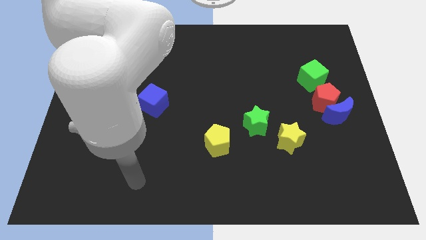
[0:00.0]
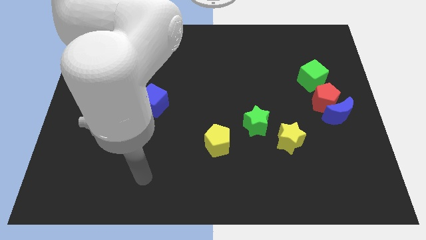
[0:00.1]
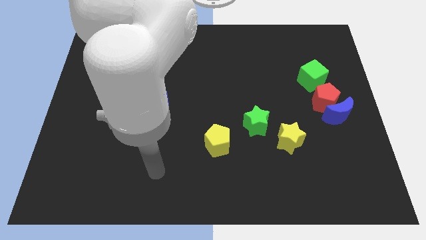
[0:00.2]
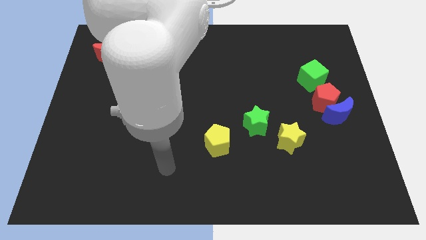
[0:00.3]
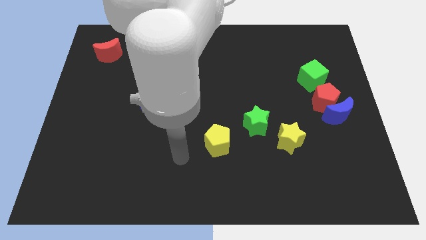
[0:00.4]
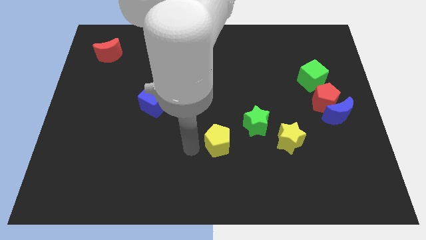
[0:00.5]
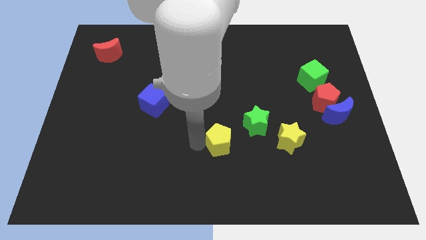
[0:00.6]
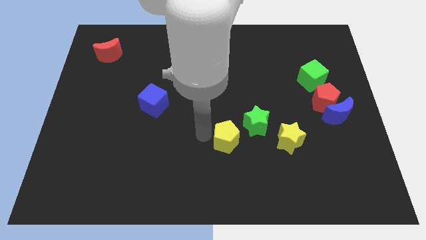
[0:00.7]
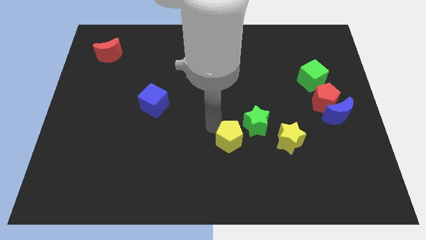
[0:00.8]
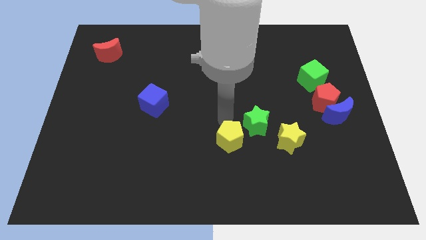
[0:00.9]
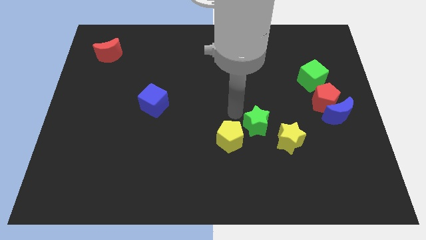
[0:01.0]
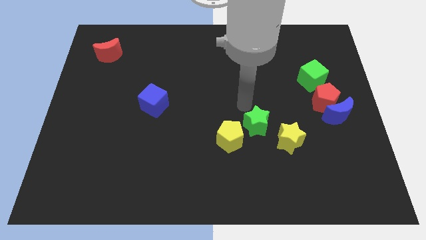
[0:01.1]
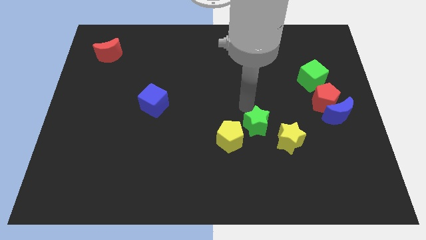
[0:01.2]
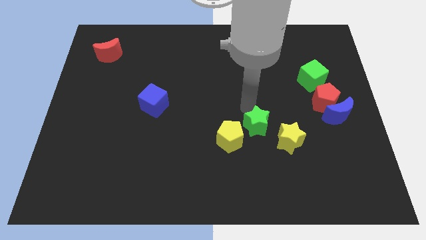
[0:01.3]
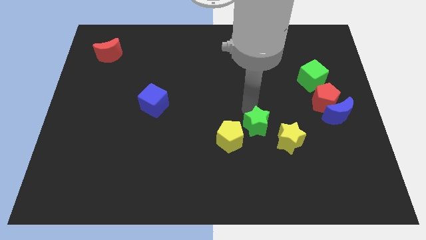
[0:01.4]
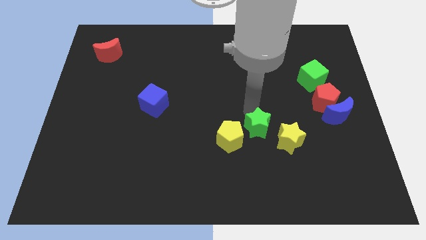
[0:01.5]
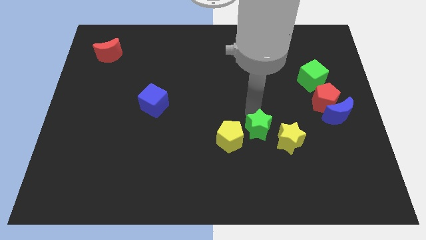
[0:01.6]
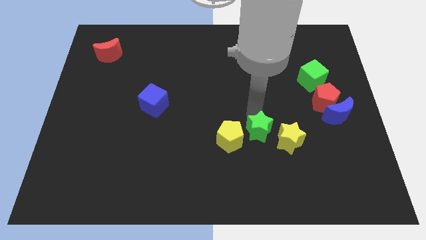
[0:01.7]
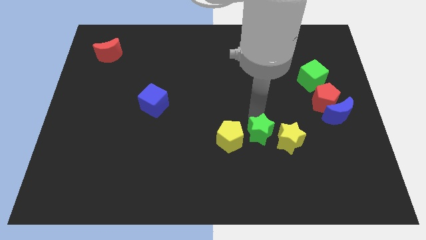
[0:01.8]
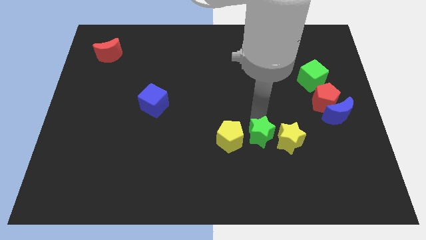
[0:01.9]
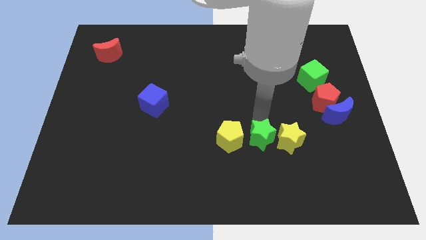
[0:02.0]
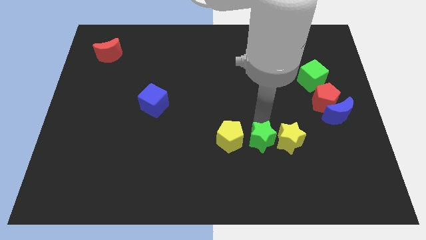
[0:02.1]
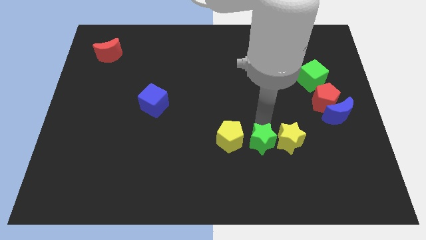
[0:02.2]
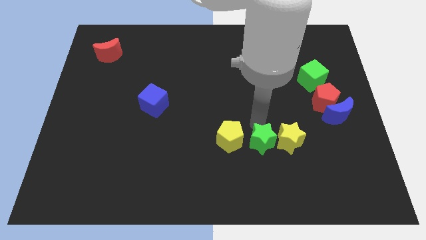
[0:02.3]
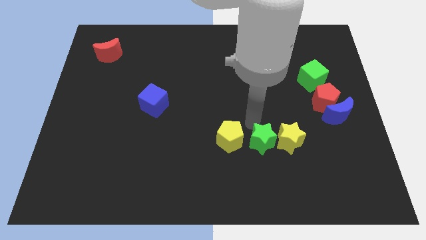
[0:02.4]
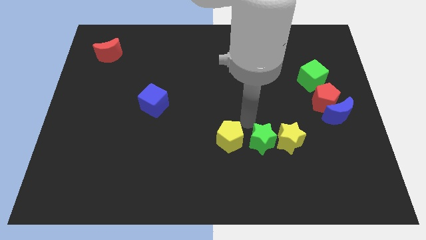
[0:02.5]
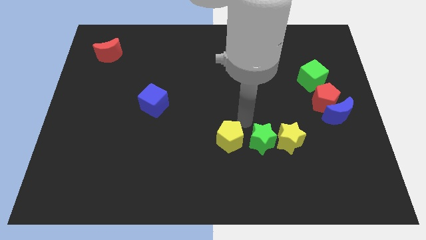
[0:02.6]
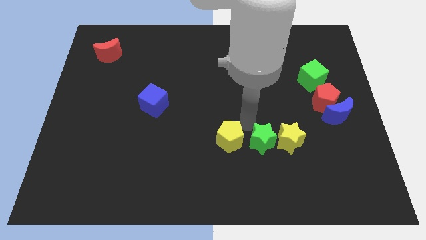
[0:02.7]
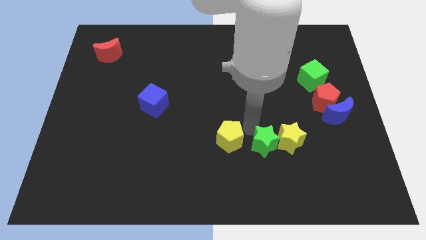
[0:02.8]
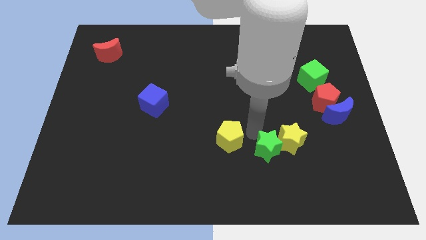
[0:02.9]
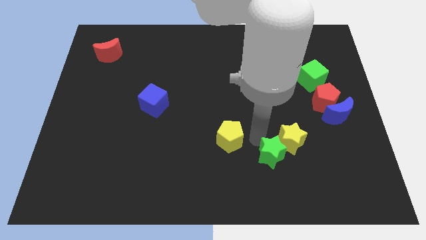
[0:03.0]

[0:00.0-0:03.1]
slightly slide the green star downwards and then right

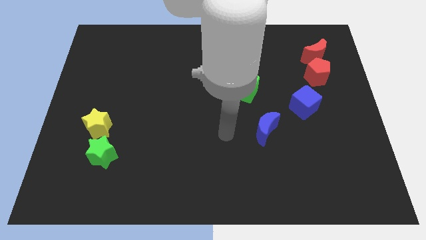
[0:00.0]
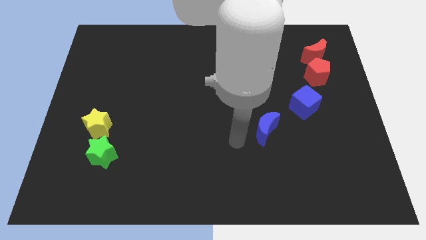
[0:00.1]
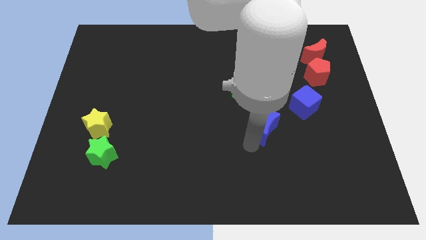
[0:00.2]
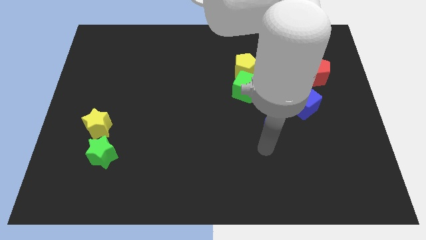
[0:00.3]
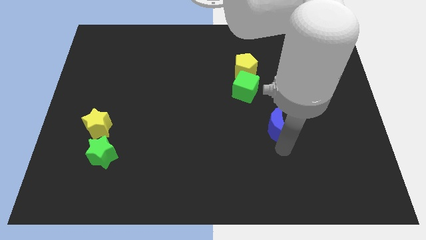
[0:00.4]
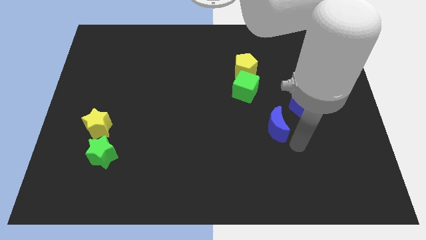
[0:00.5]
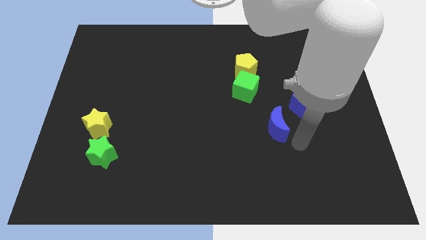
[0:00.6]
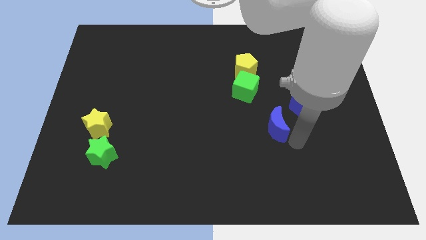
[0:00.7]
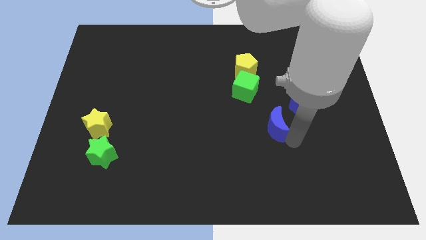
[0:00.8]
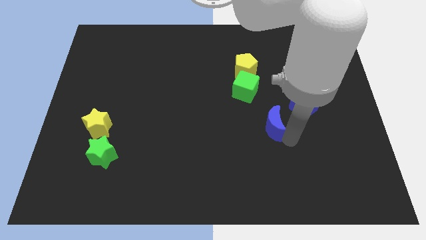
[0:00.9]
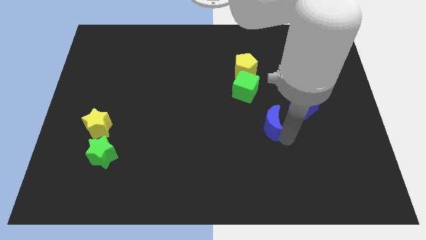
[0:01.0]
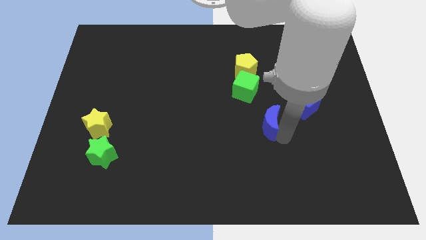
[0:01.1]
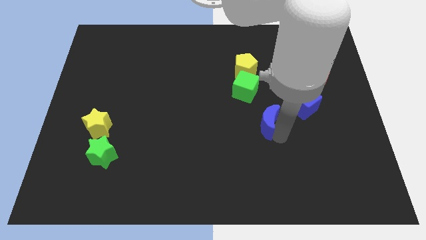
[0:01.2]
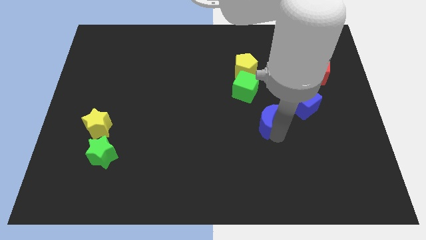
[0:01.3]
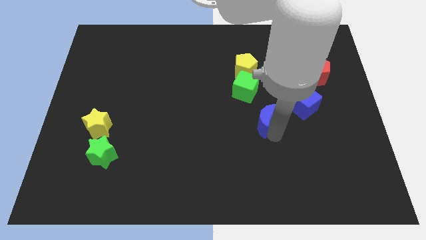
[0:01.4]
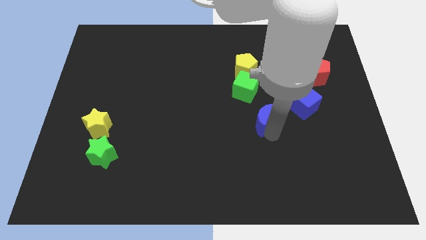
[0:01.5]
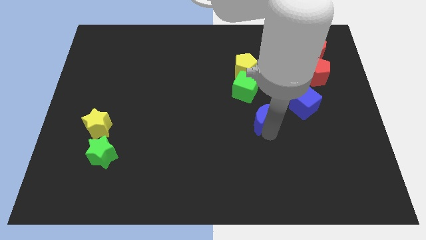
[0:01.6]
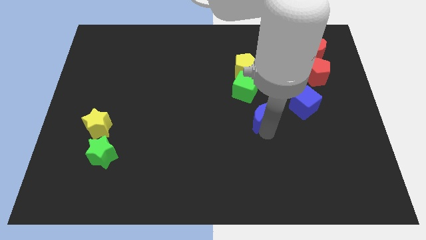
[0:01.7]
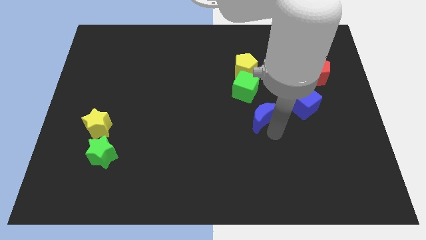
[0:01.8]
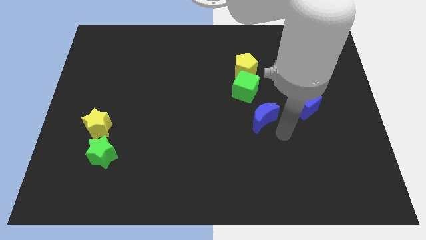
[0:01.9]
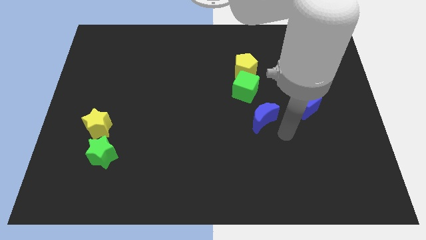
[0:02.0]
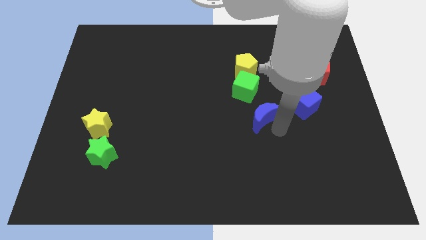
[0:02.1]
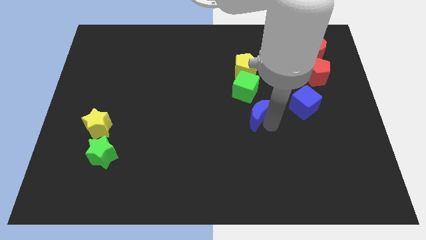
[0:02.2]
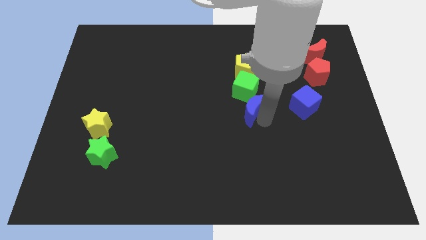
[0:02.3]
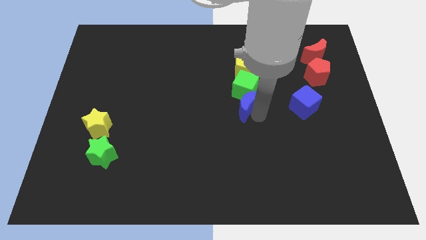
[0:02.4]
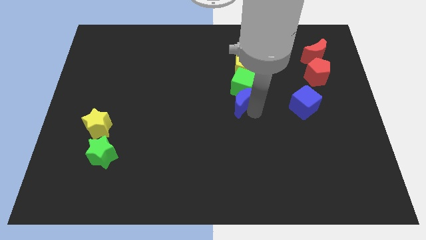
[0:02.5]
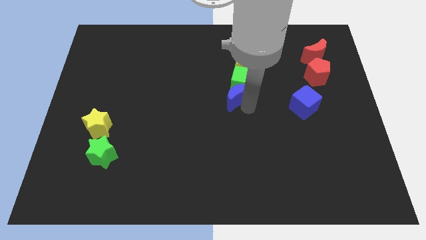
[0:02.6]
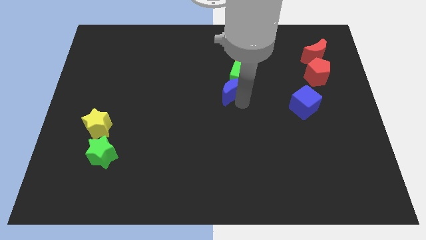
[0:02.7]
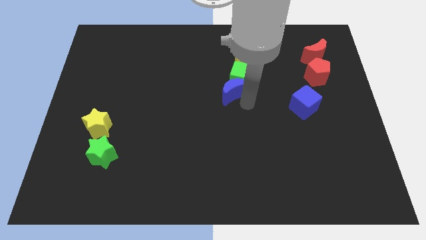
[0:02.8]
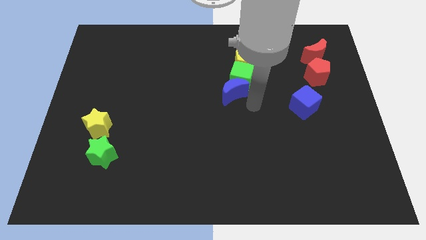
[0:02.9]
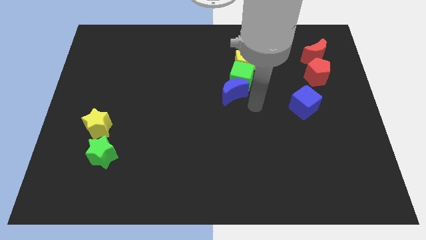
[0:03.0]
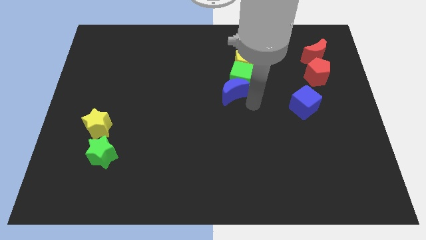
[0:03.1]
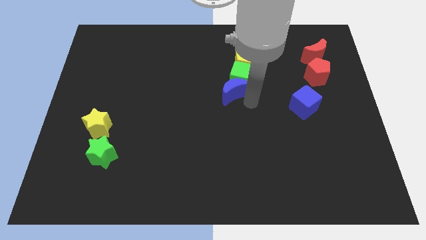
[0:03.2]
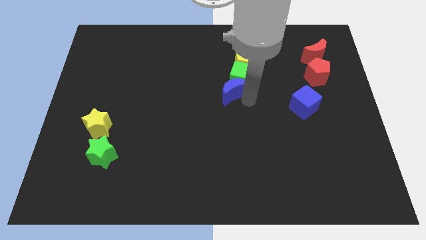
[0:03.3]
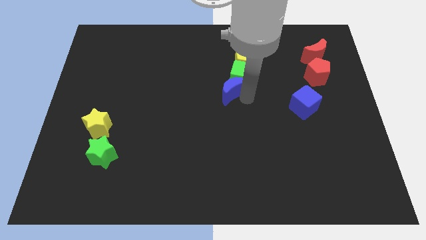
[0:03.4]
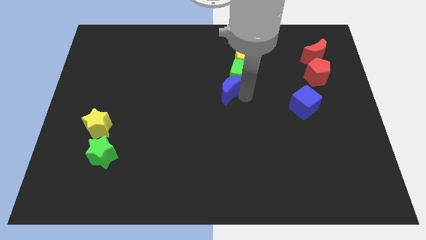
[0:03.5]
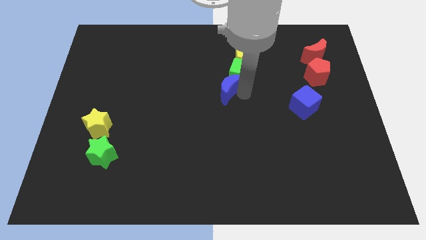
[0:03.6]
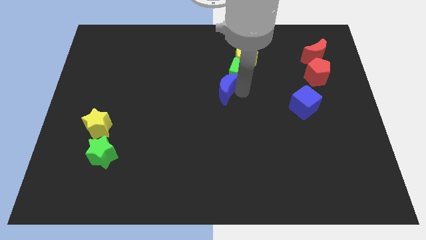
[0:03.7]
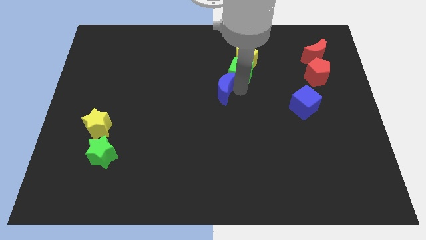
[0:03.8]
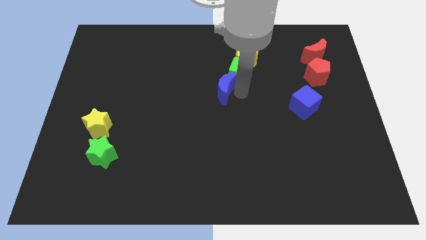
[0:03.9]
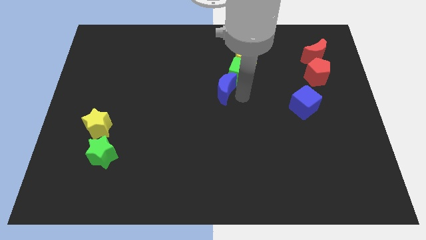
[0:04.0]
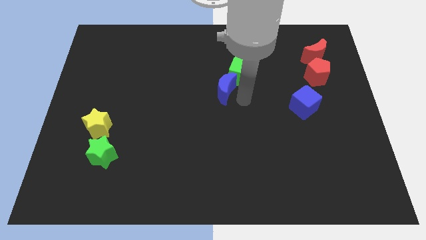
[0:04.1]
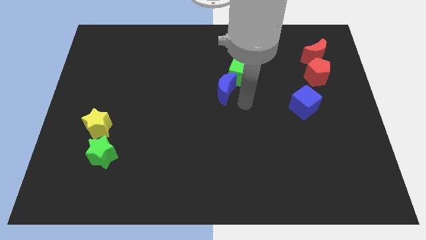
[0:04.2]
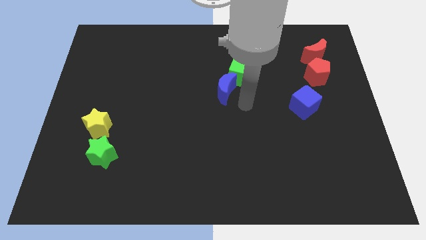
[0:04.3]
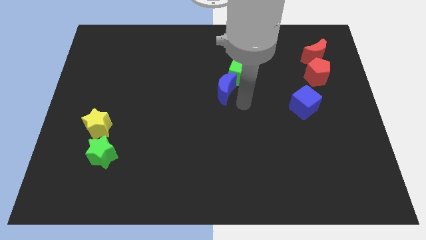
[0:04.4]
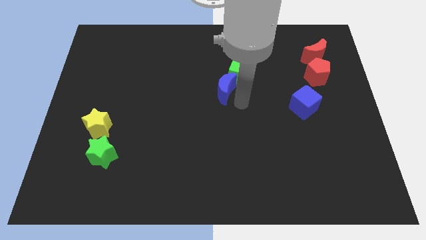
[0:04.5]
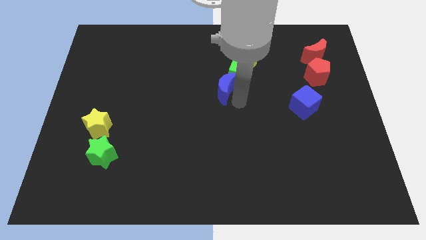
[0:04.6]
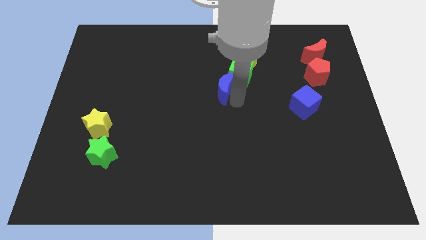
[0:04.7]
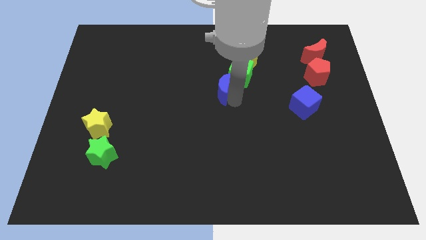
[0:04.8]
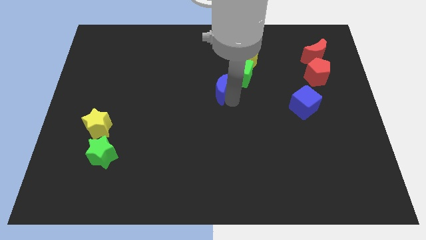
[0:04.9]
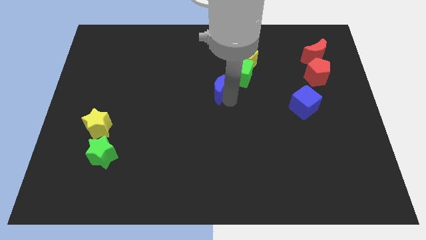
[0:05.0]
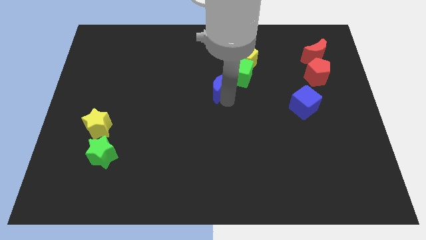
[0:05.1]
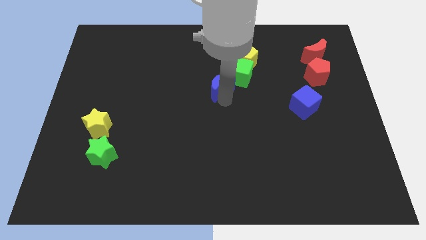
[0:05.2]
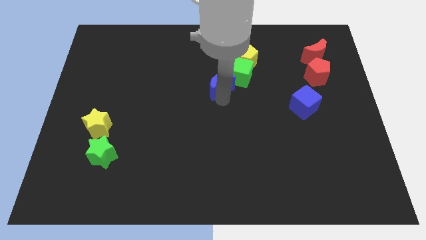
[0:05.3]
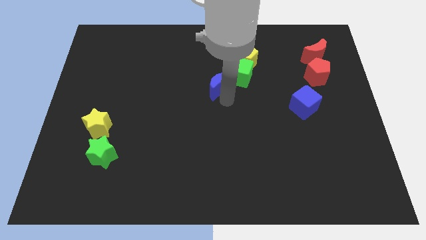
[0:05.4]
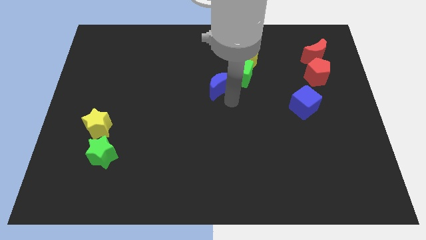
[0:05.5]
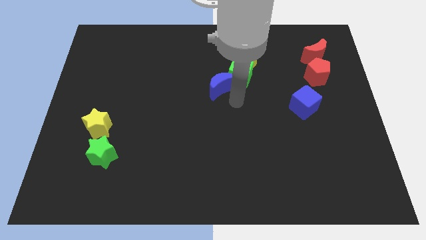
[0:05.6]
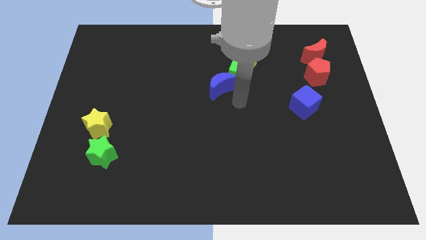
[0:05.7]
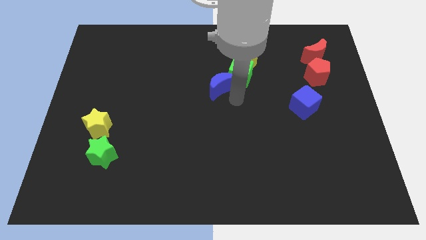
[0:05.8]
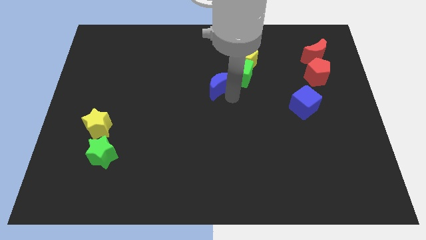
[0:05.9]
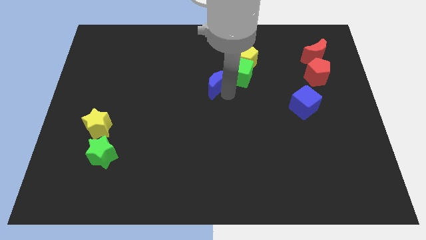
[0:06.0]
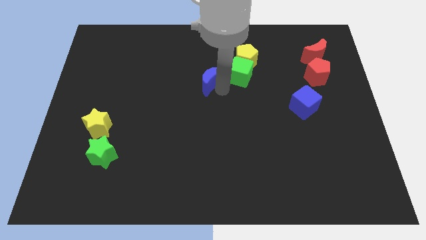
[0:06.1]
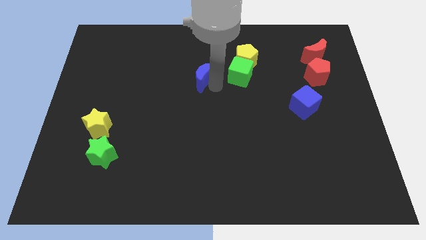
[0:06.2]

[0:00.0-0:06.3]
push the blue moon upwards and left
